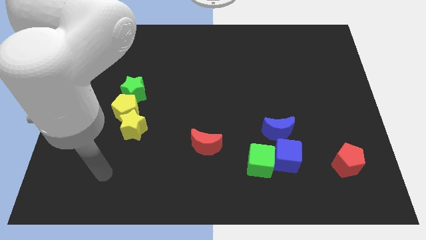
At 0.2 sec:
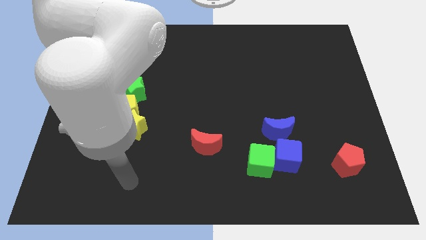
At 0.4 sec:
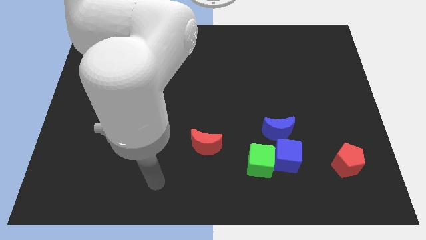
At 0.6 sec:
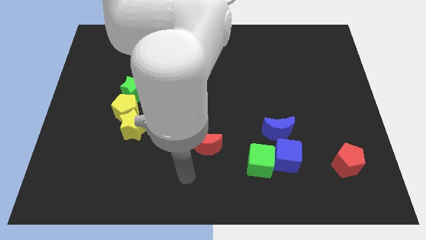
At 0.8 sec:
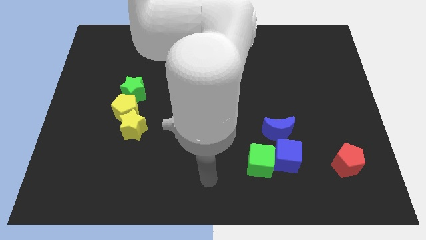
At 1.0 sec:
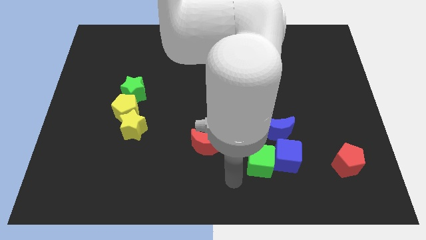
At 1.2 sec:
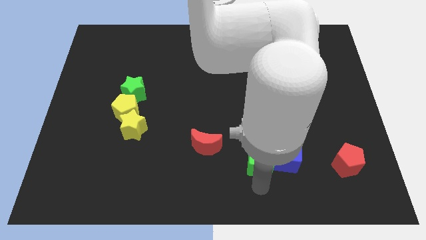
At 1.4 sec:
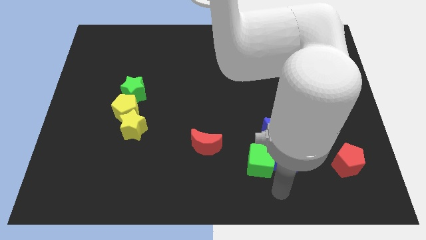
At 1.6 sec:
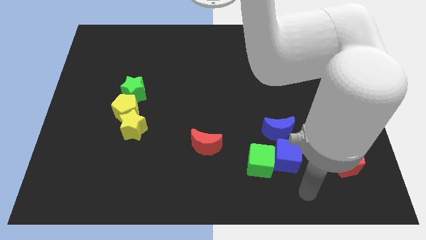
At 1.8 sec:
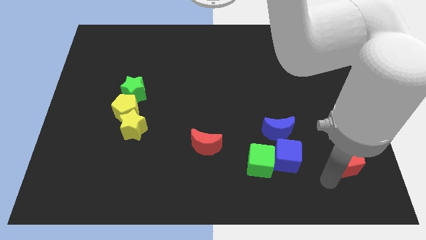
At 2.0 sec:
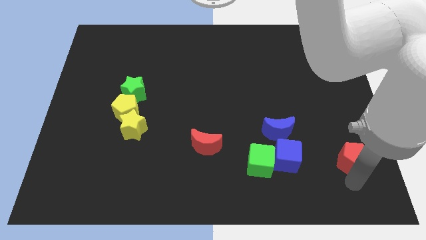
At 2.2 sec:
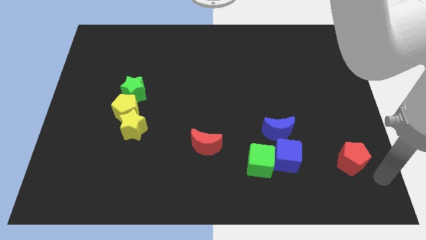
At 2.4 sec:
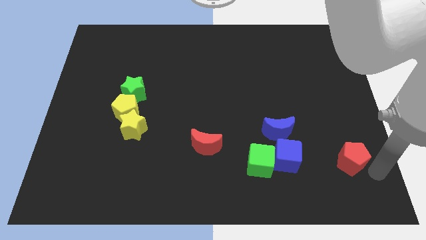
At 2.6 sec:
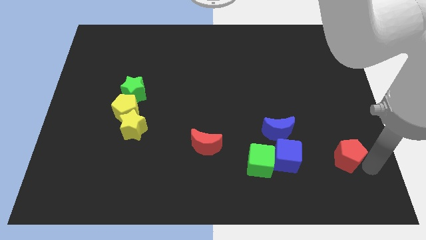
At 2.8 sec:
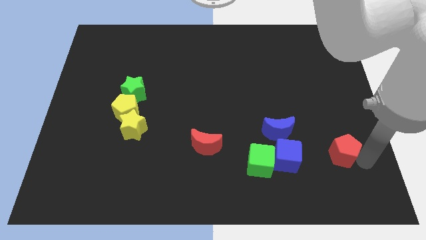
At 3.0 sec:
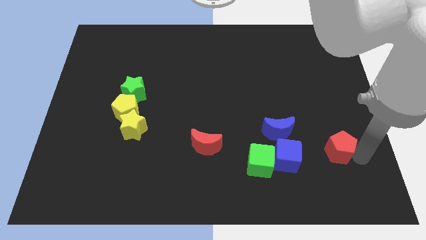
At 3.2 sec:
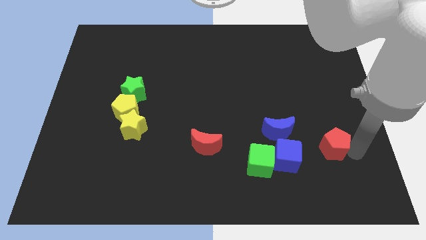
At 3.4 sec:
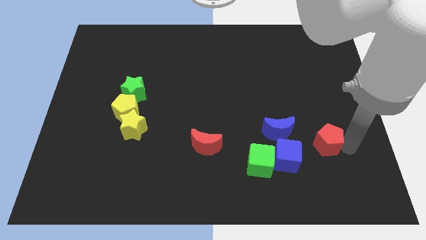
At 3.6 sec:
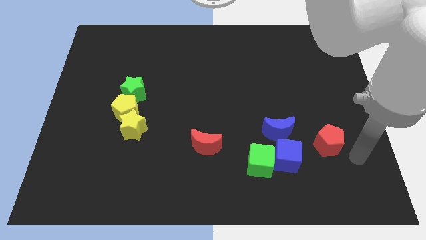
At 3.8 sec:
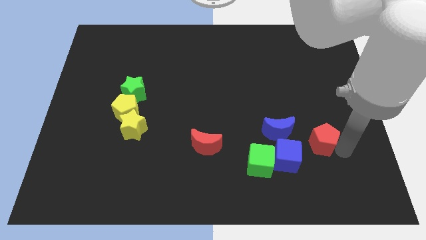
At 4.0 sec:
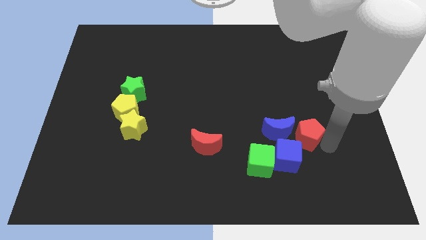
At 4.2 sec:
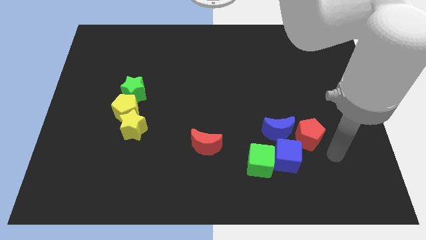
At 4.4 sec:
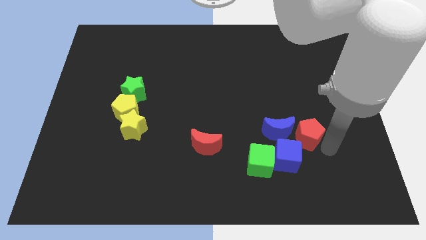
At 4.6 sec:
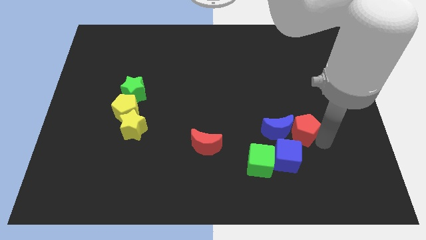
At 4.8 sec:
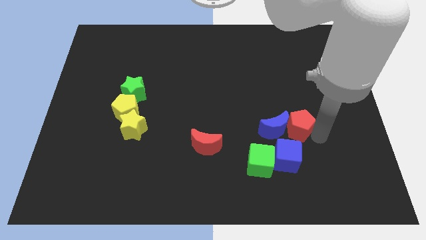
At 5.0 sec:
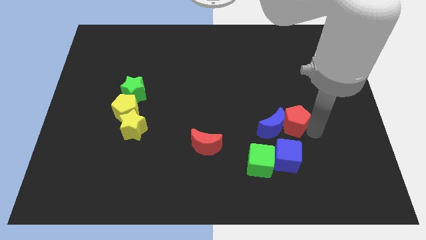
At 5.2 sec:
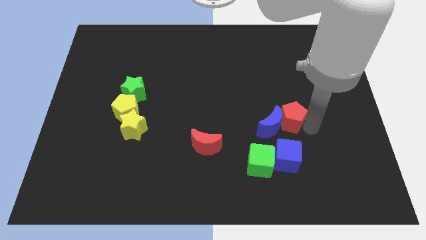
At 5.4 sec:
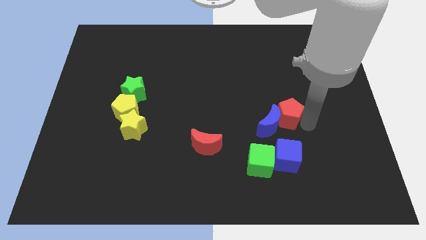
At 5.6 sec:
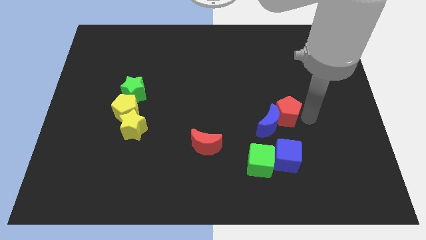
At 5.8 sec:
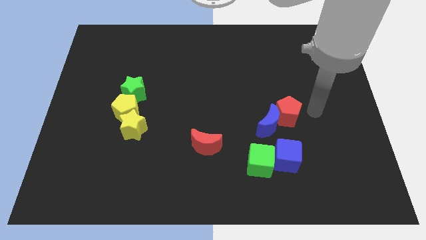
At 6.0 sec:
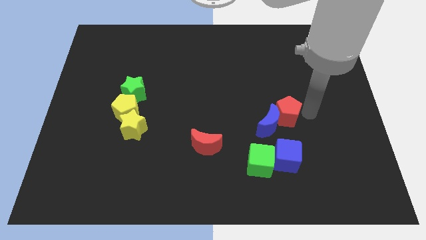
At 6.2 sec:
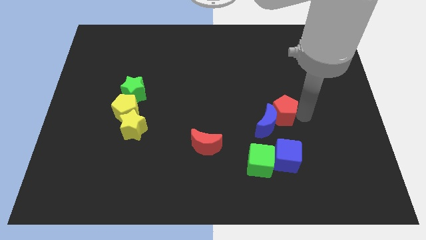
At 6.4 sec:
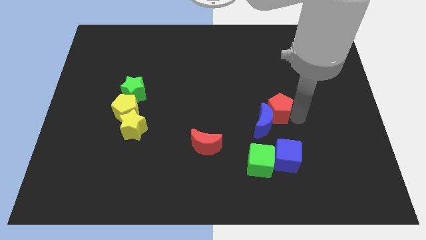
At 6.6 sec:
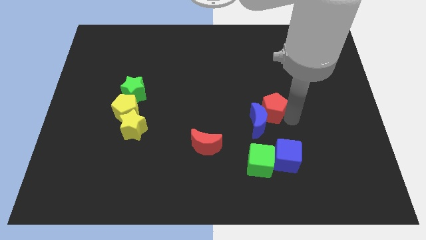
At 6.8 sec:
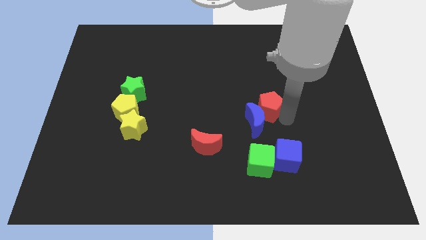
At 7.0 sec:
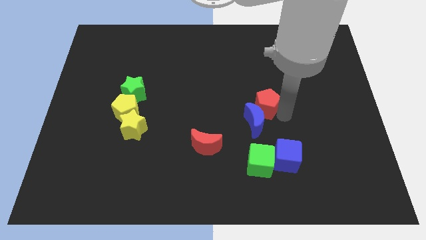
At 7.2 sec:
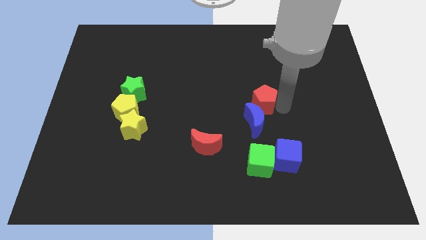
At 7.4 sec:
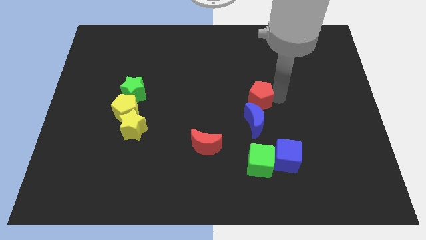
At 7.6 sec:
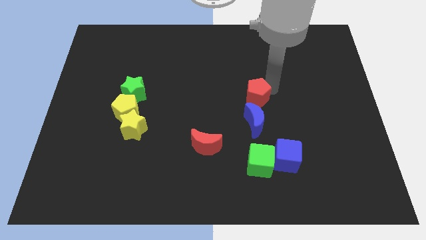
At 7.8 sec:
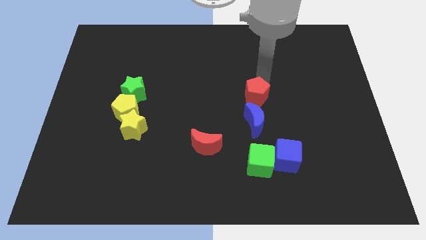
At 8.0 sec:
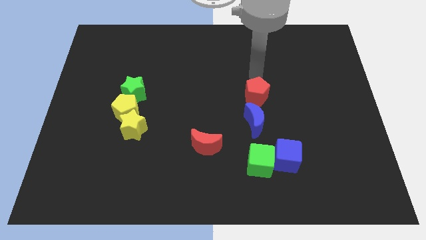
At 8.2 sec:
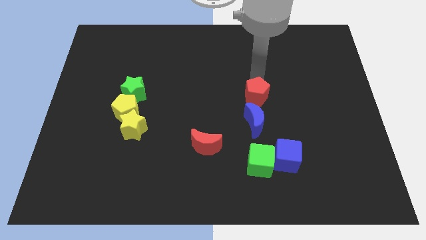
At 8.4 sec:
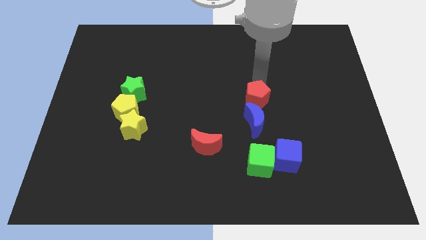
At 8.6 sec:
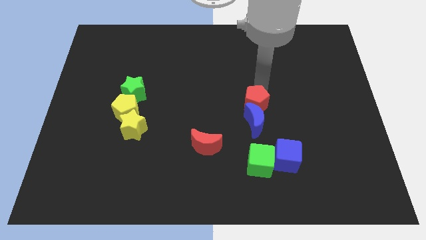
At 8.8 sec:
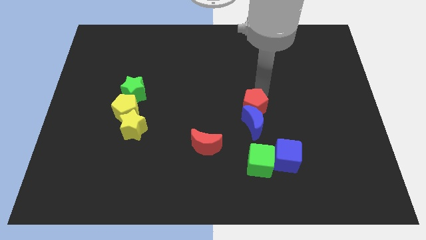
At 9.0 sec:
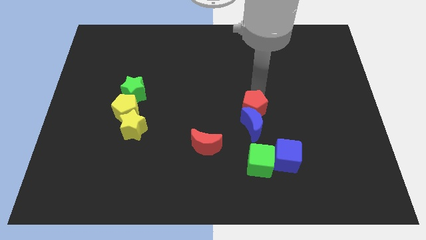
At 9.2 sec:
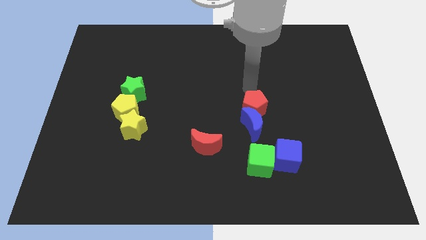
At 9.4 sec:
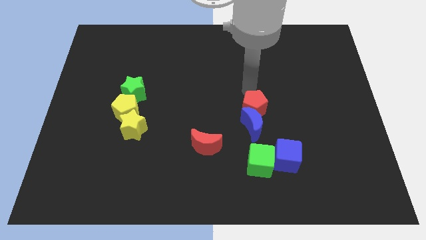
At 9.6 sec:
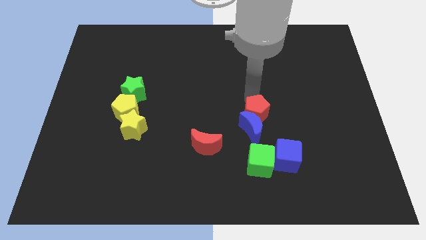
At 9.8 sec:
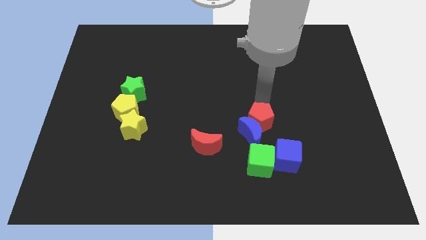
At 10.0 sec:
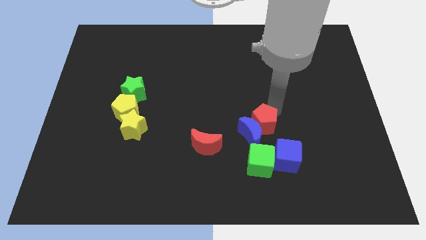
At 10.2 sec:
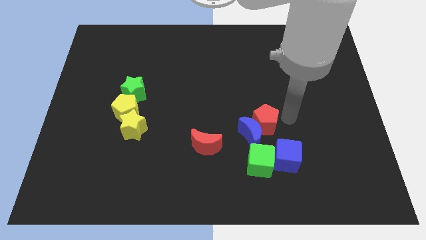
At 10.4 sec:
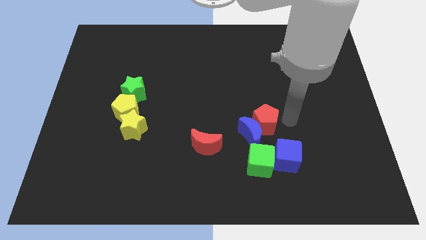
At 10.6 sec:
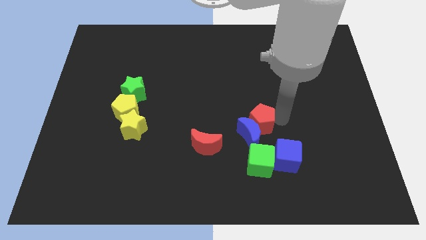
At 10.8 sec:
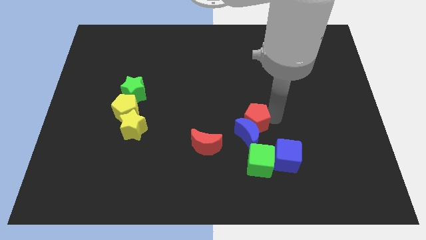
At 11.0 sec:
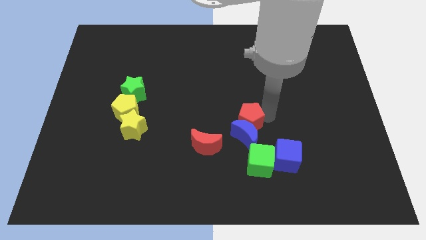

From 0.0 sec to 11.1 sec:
put the red pentagon diagonally up and to the right of the red moon

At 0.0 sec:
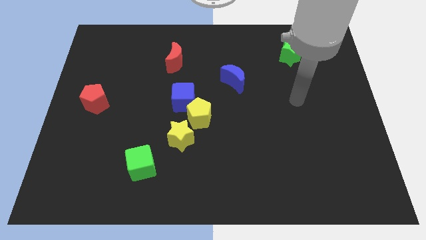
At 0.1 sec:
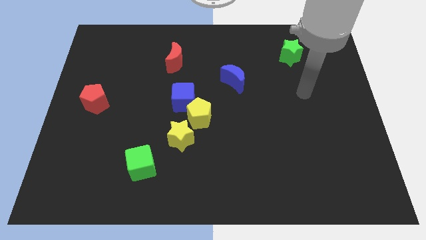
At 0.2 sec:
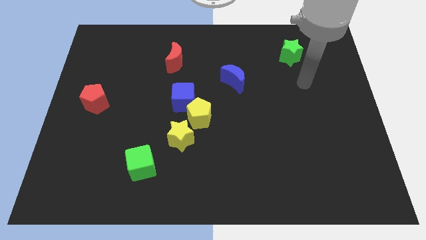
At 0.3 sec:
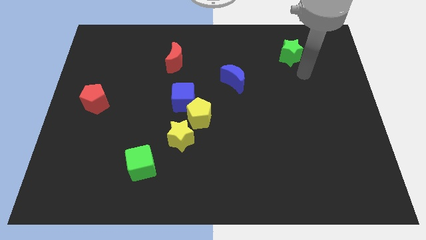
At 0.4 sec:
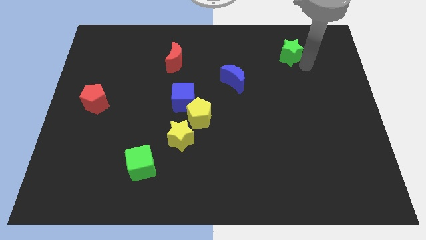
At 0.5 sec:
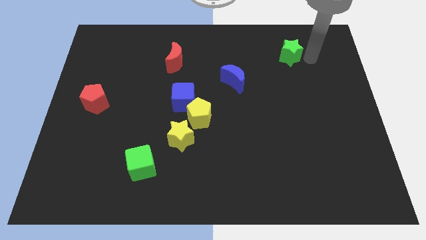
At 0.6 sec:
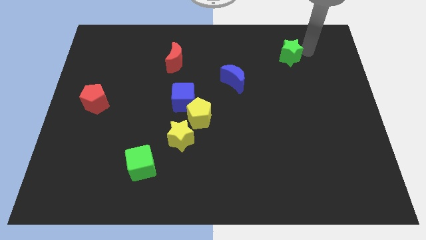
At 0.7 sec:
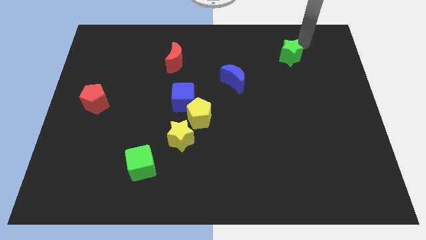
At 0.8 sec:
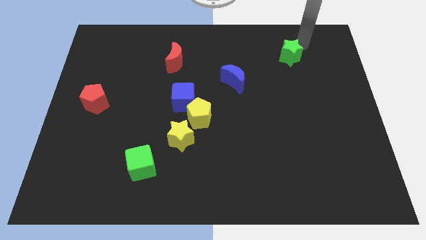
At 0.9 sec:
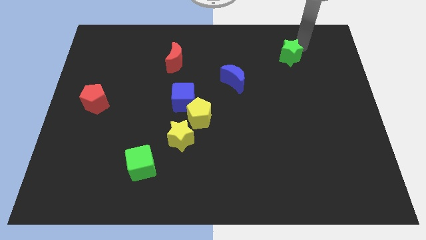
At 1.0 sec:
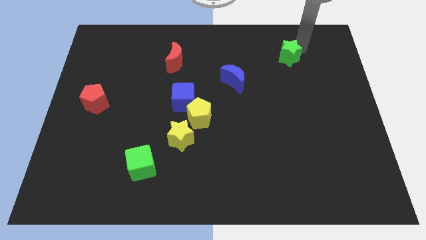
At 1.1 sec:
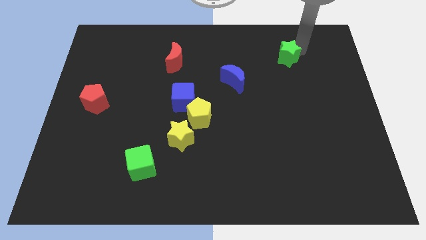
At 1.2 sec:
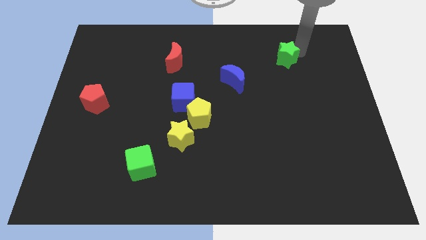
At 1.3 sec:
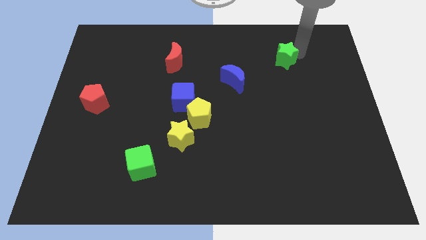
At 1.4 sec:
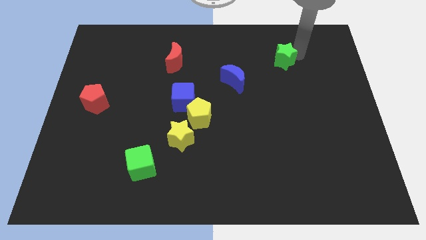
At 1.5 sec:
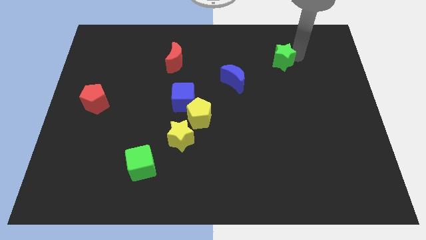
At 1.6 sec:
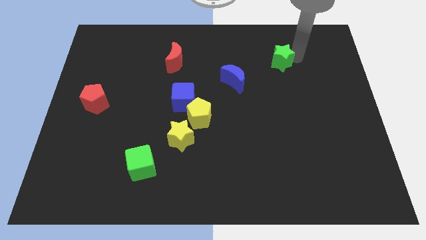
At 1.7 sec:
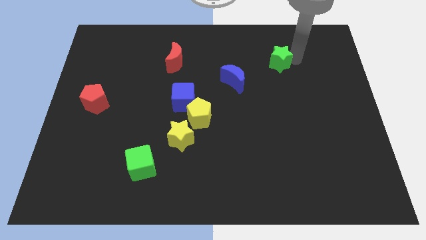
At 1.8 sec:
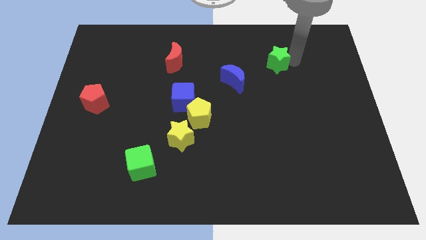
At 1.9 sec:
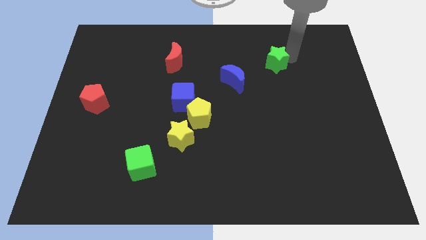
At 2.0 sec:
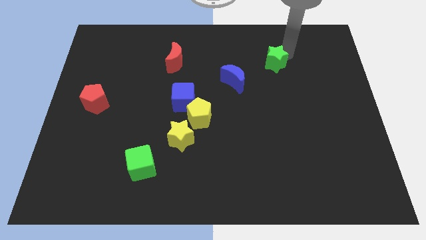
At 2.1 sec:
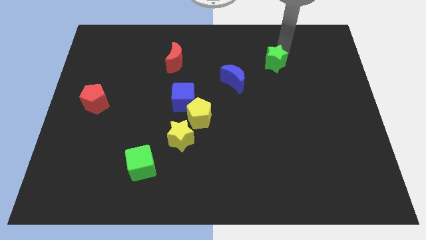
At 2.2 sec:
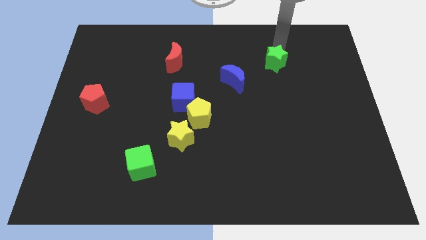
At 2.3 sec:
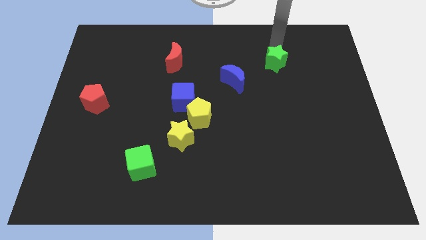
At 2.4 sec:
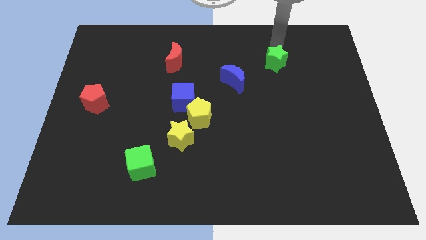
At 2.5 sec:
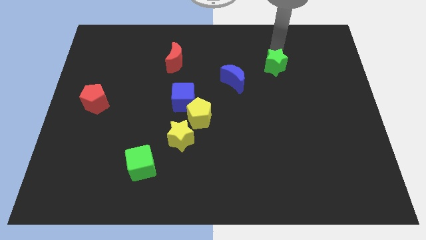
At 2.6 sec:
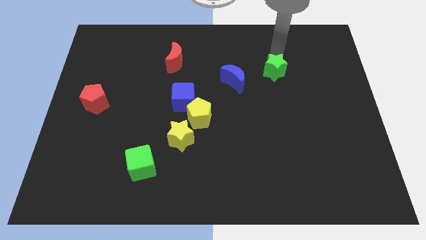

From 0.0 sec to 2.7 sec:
push the green star right of the blue moon
